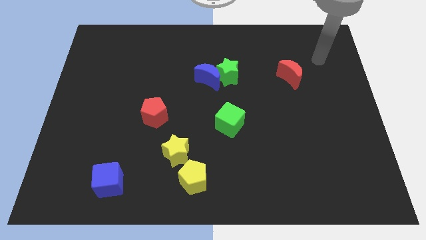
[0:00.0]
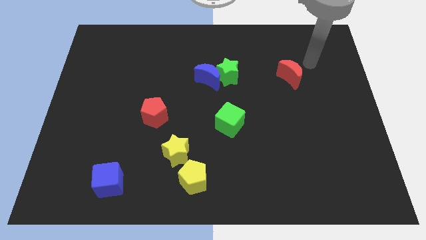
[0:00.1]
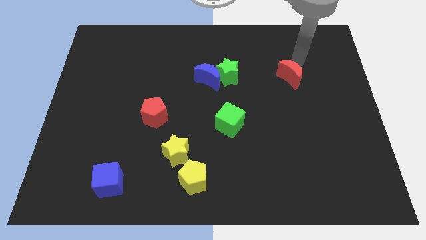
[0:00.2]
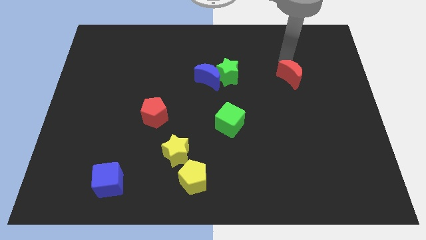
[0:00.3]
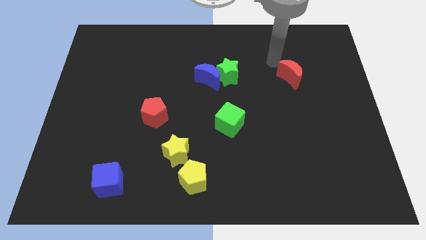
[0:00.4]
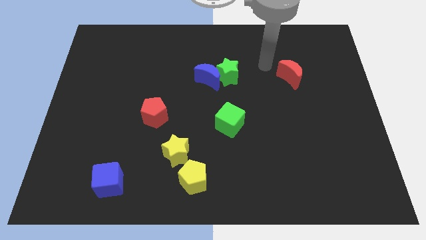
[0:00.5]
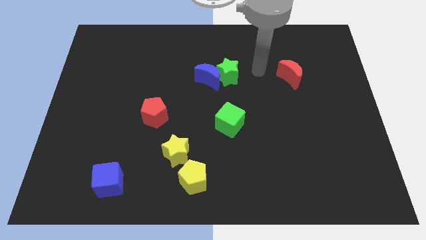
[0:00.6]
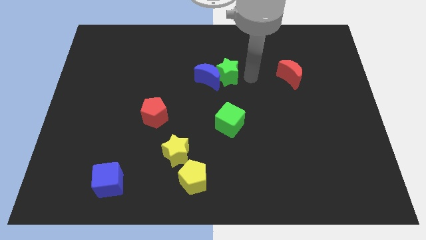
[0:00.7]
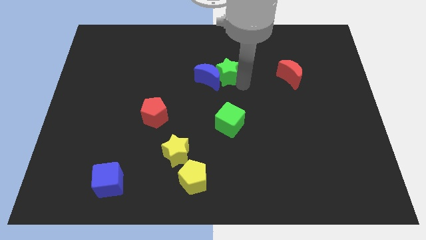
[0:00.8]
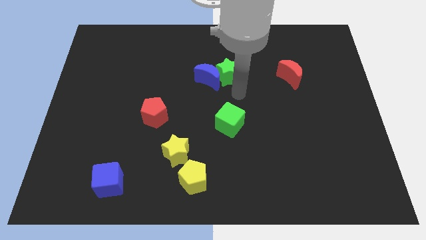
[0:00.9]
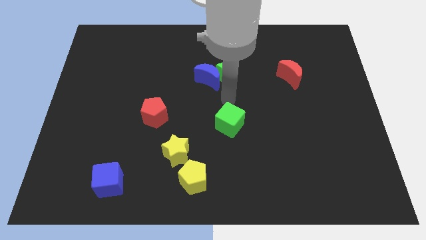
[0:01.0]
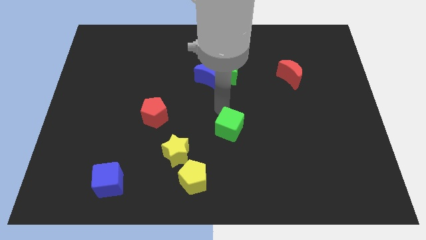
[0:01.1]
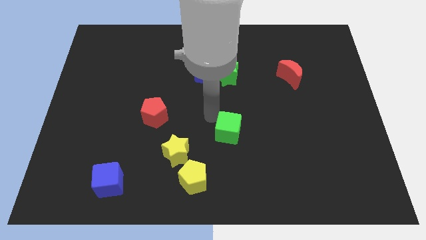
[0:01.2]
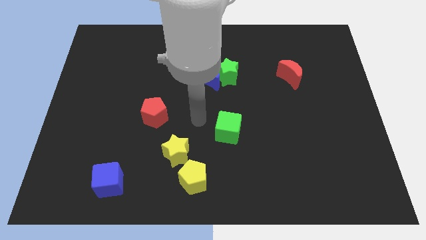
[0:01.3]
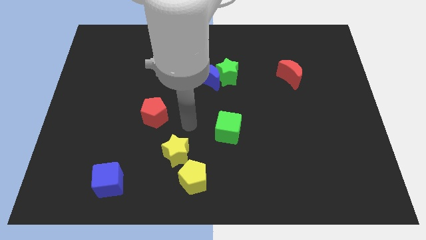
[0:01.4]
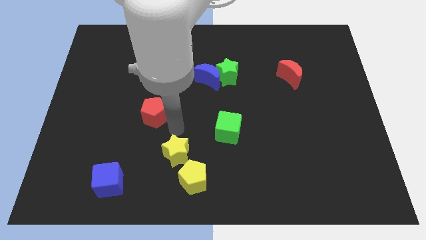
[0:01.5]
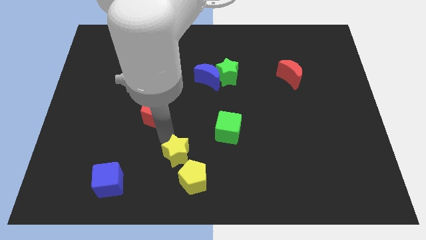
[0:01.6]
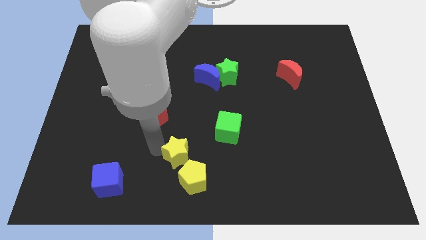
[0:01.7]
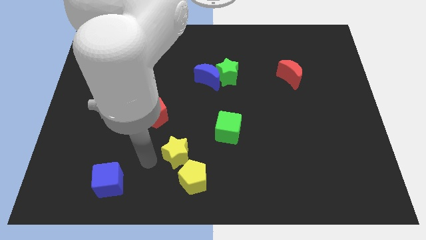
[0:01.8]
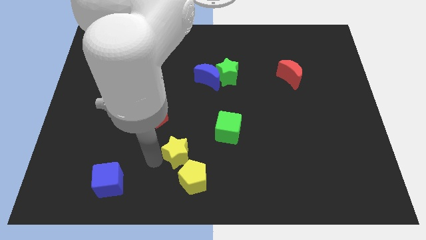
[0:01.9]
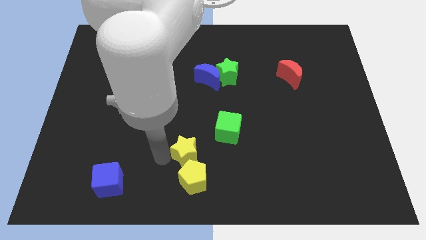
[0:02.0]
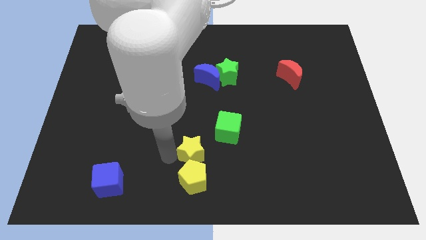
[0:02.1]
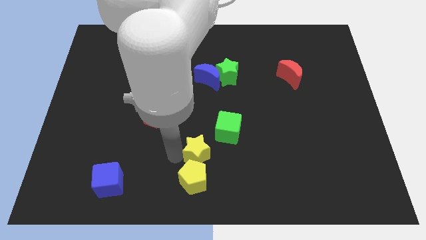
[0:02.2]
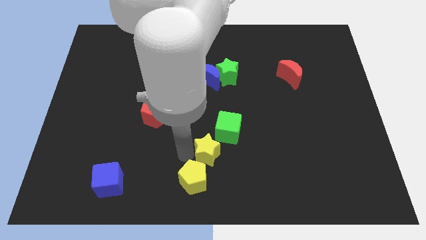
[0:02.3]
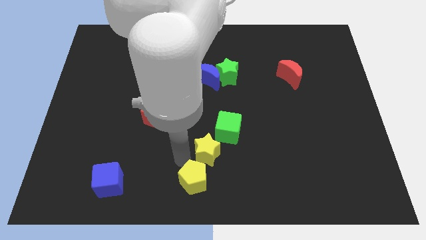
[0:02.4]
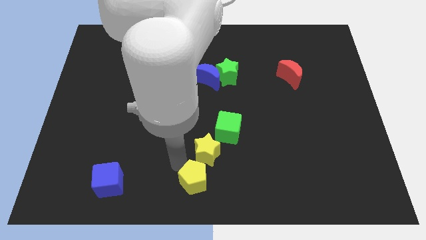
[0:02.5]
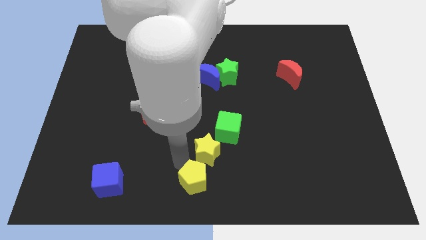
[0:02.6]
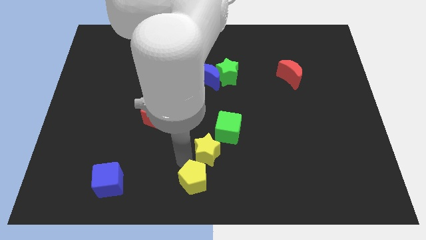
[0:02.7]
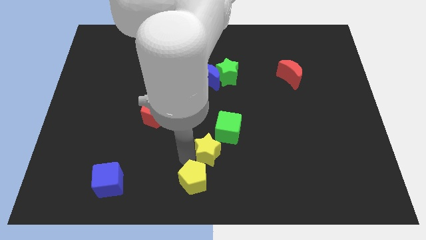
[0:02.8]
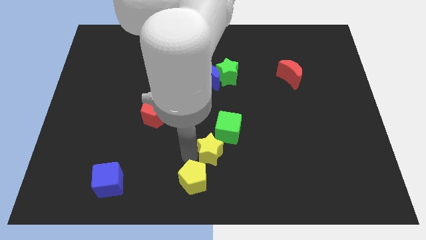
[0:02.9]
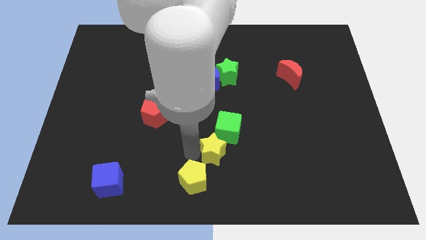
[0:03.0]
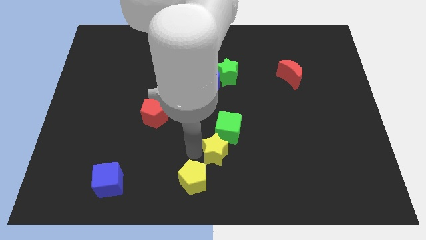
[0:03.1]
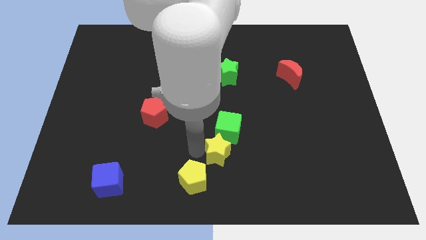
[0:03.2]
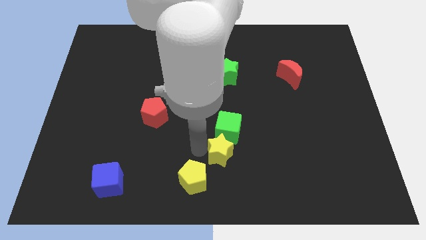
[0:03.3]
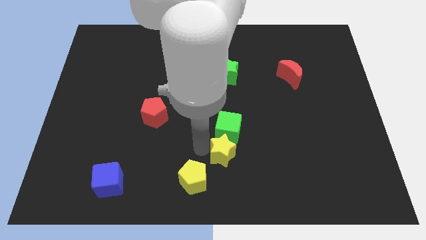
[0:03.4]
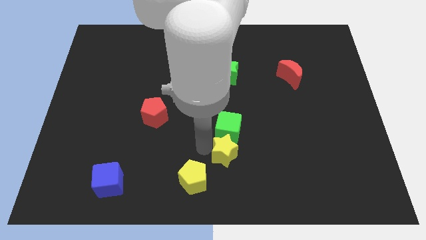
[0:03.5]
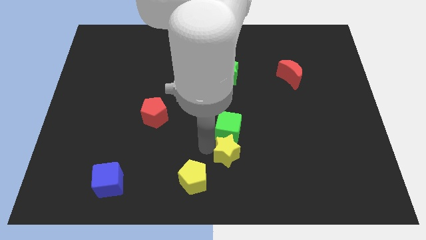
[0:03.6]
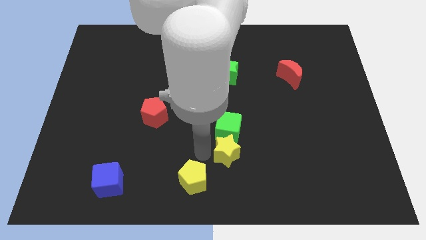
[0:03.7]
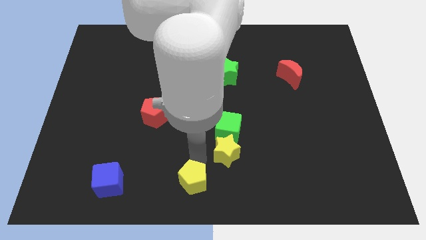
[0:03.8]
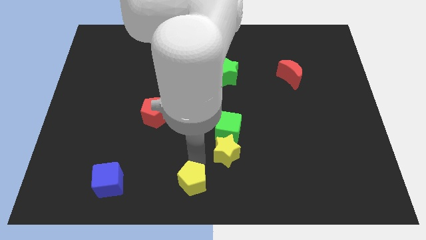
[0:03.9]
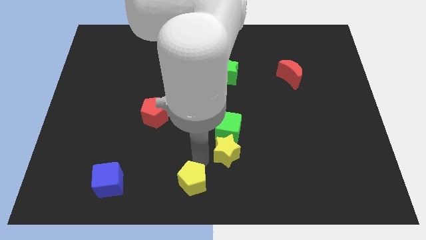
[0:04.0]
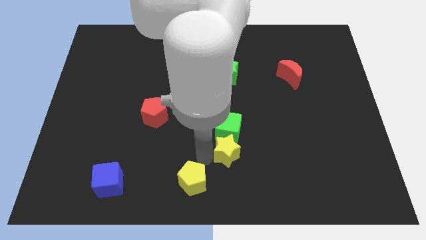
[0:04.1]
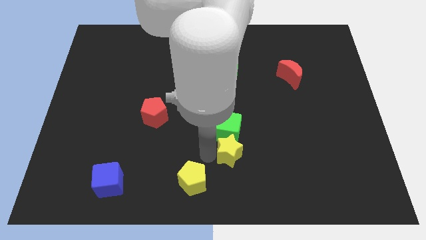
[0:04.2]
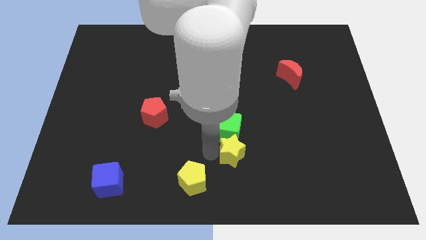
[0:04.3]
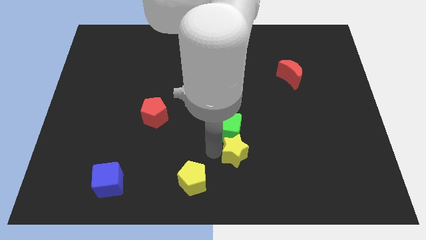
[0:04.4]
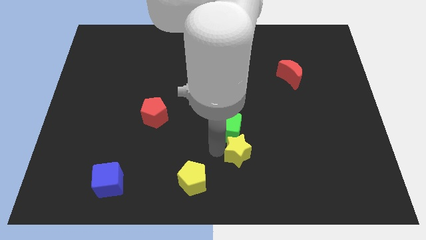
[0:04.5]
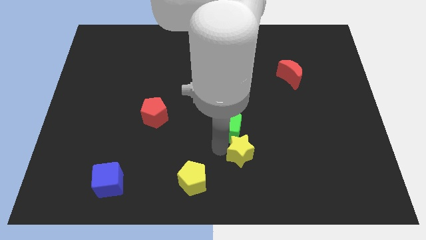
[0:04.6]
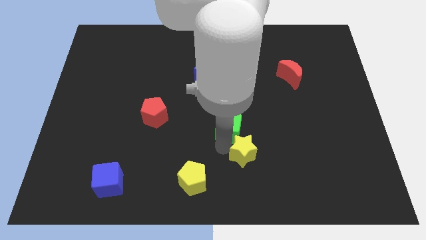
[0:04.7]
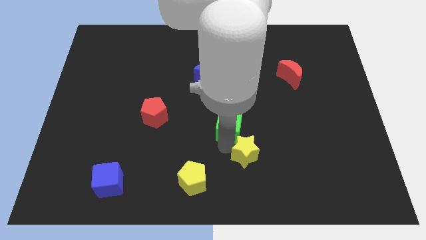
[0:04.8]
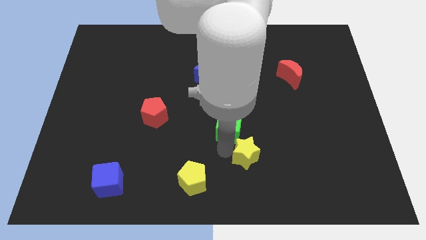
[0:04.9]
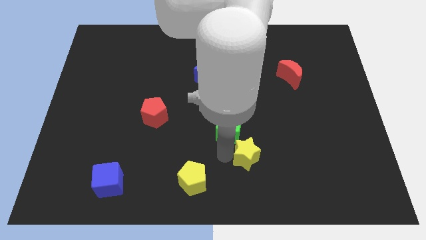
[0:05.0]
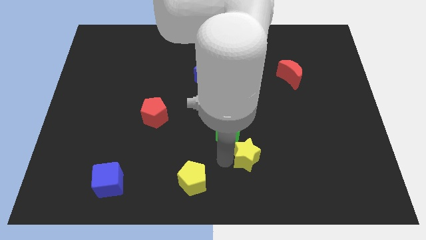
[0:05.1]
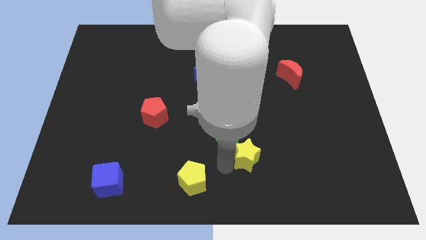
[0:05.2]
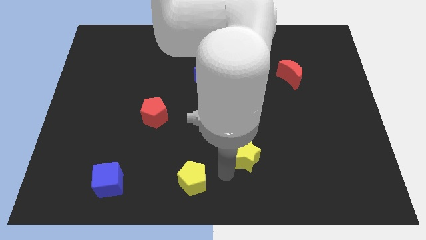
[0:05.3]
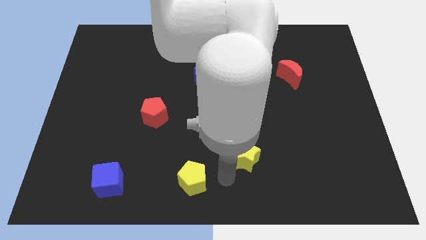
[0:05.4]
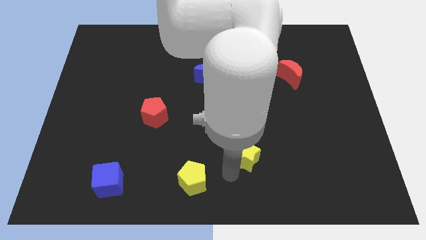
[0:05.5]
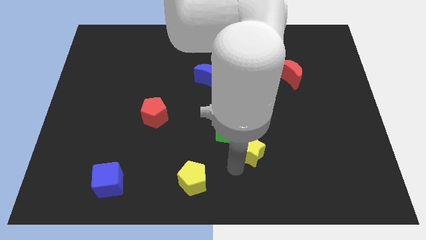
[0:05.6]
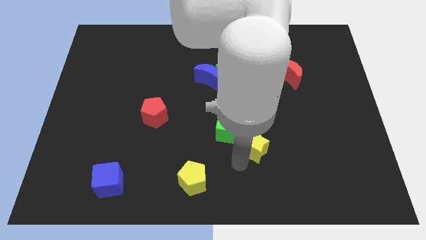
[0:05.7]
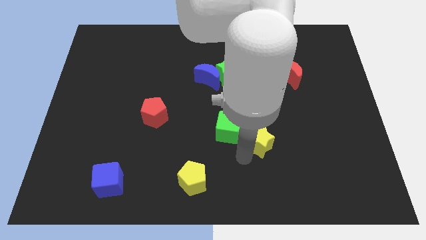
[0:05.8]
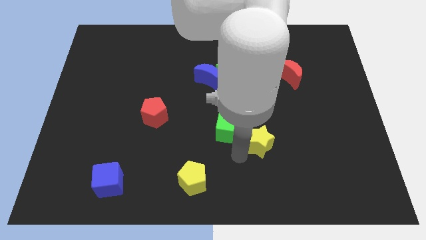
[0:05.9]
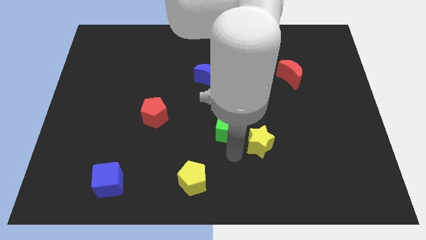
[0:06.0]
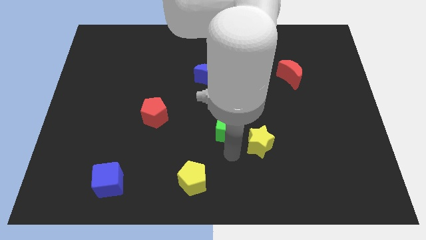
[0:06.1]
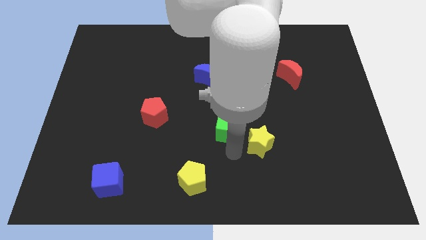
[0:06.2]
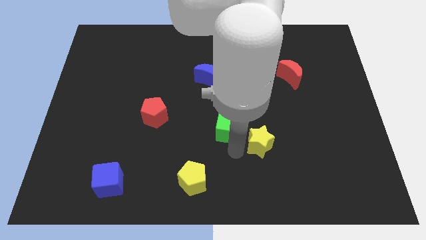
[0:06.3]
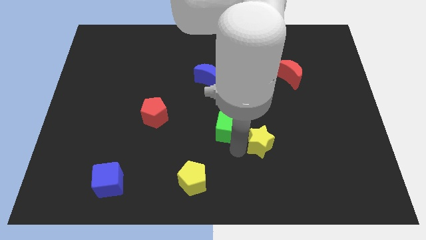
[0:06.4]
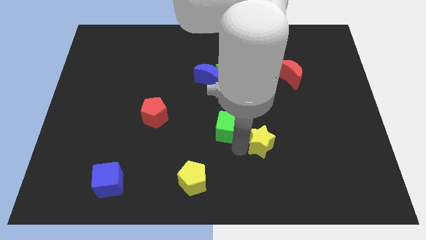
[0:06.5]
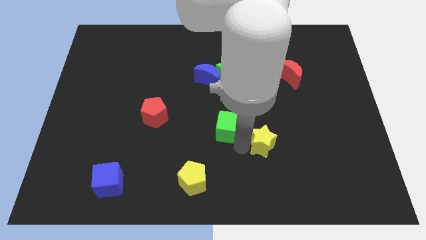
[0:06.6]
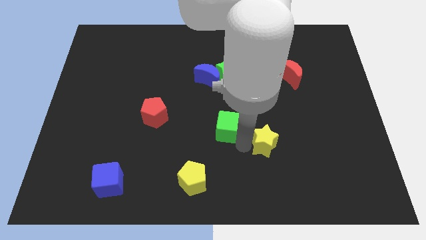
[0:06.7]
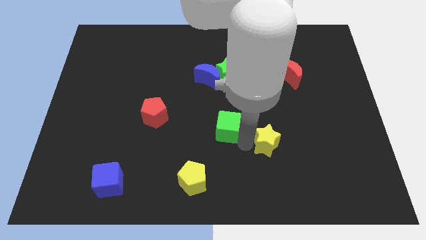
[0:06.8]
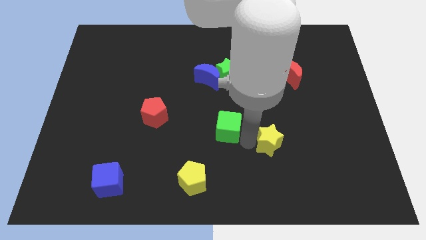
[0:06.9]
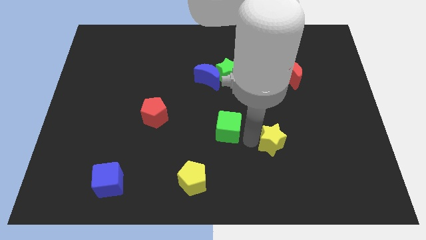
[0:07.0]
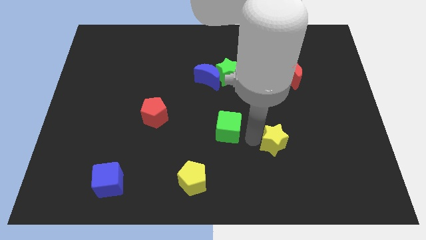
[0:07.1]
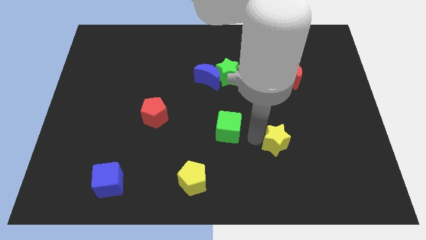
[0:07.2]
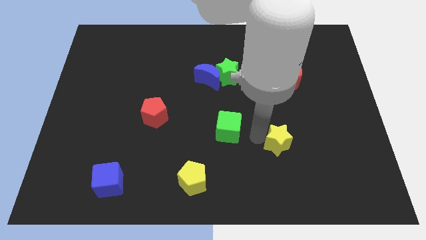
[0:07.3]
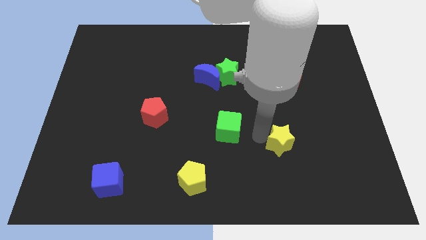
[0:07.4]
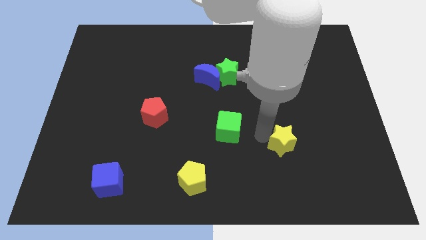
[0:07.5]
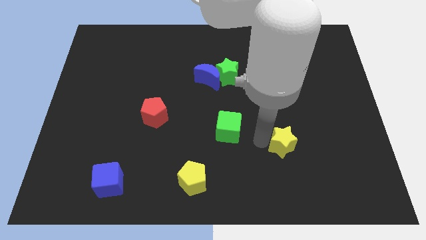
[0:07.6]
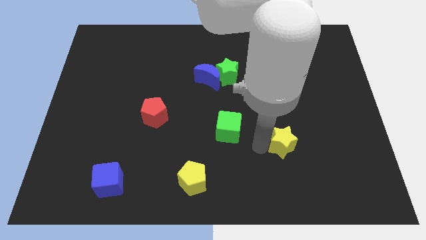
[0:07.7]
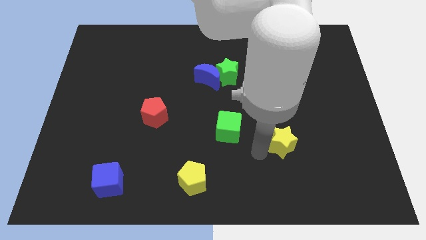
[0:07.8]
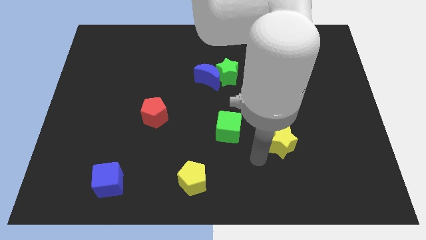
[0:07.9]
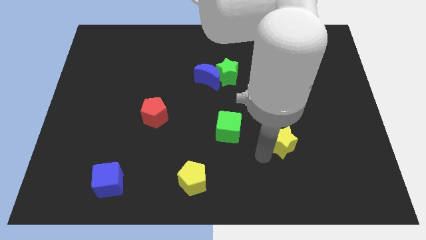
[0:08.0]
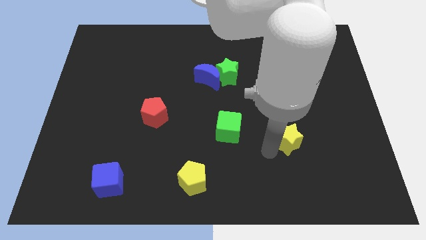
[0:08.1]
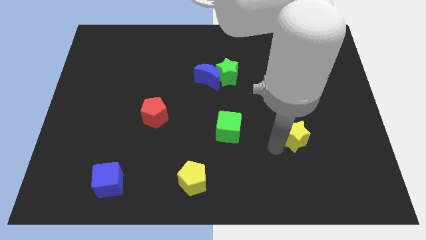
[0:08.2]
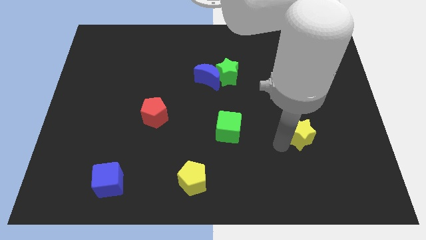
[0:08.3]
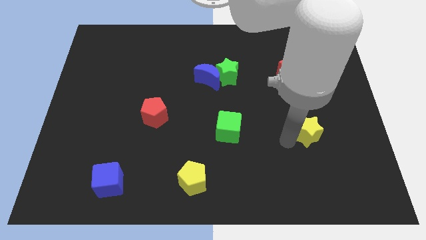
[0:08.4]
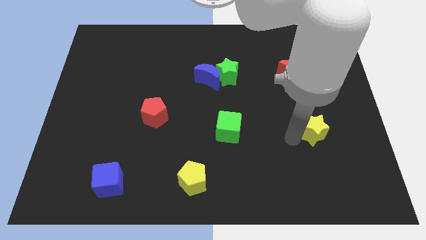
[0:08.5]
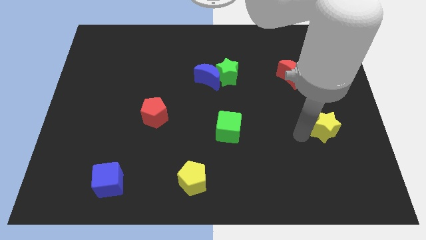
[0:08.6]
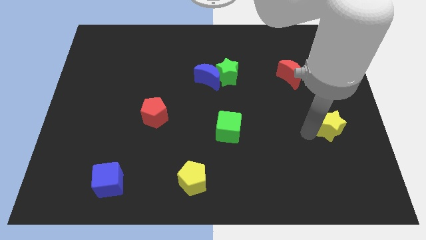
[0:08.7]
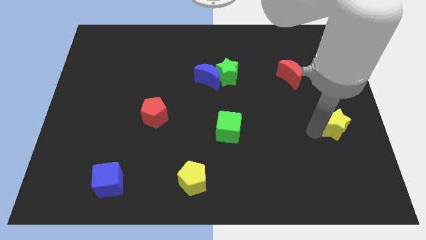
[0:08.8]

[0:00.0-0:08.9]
move the yellow star to the center right
